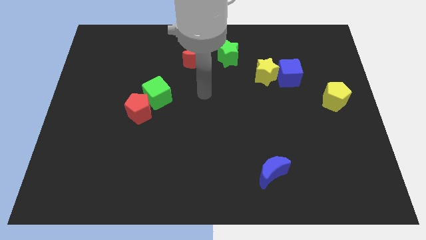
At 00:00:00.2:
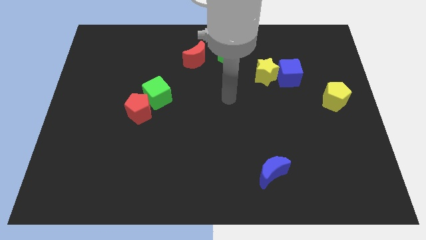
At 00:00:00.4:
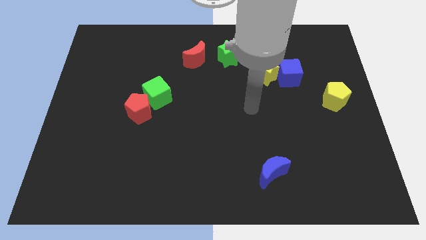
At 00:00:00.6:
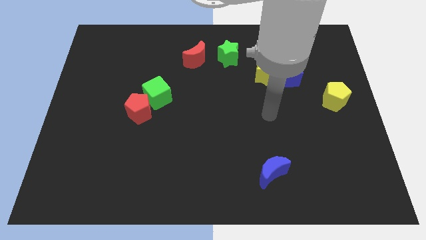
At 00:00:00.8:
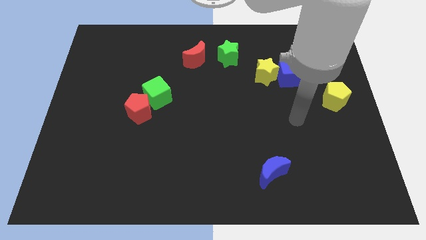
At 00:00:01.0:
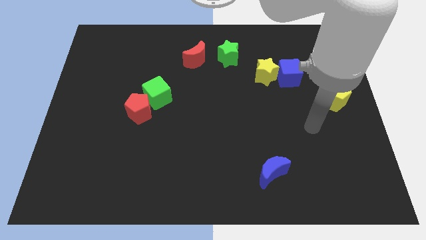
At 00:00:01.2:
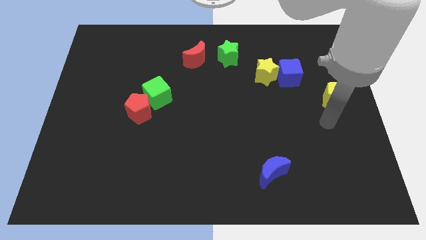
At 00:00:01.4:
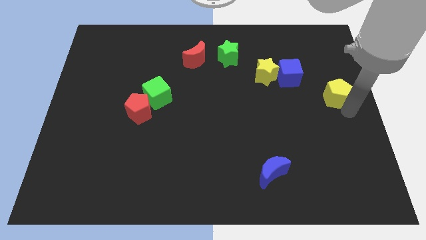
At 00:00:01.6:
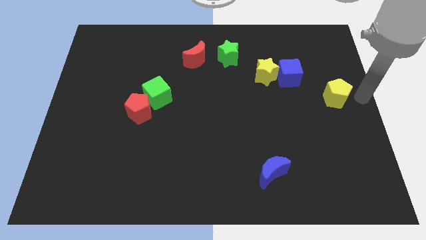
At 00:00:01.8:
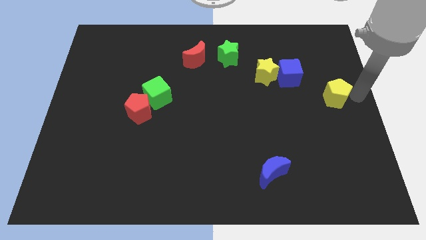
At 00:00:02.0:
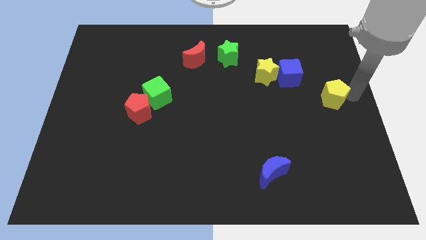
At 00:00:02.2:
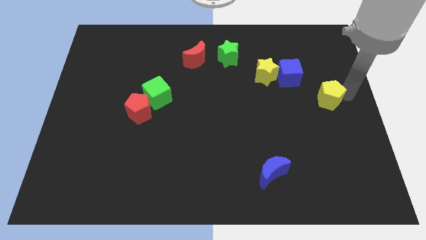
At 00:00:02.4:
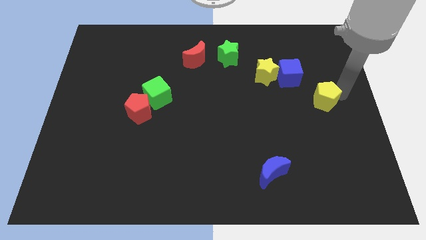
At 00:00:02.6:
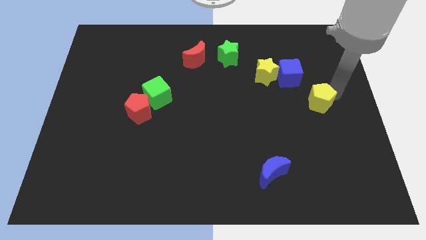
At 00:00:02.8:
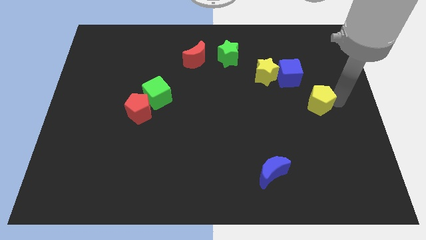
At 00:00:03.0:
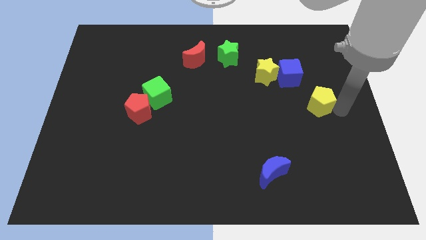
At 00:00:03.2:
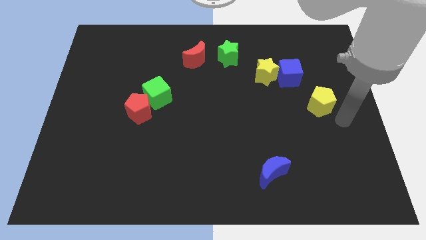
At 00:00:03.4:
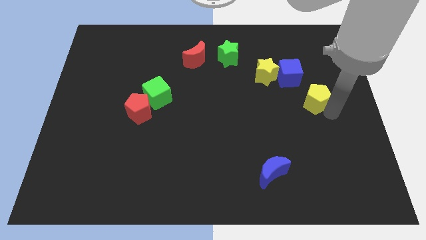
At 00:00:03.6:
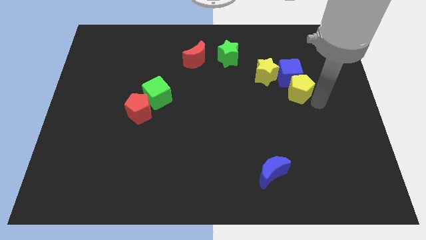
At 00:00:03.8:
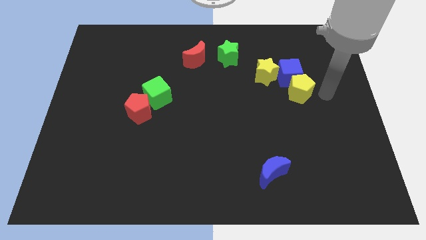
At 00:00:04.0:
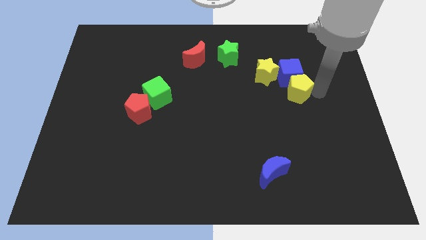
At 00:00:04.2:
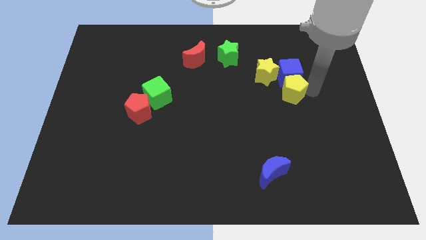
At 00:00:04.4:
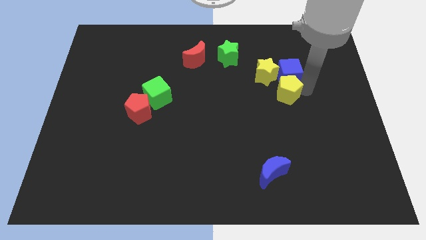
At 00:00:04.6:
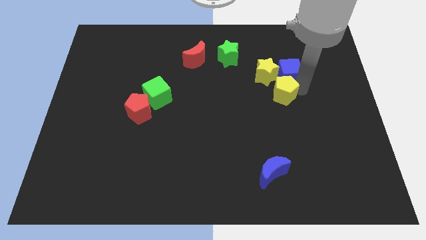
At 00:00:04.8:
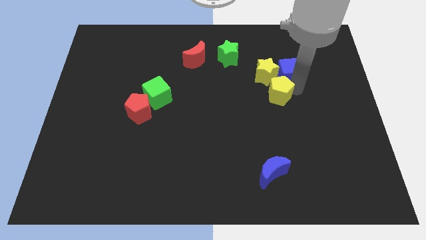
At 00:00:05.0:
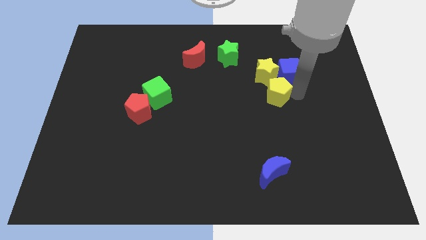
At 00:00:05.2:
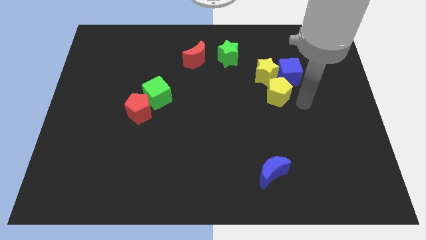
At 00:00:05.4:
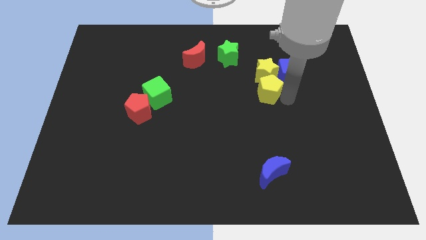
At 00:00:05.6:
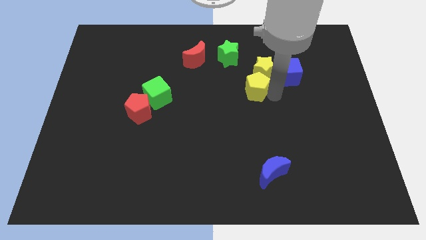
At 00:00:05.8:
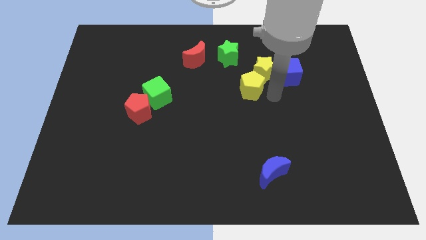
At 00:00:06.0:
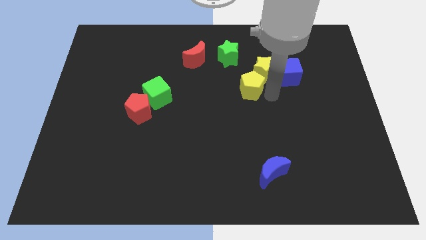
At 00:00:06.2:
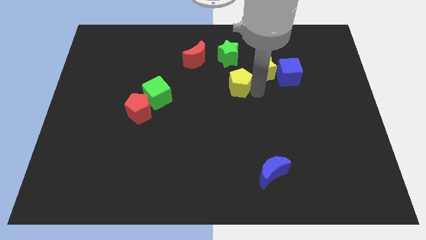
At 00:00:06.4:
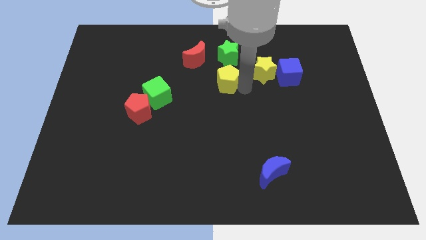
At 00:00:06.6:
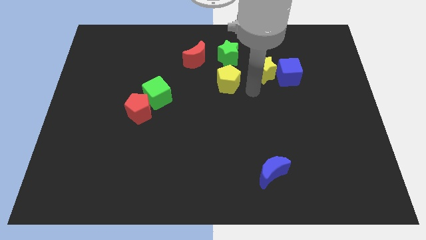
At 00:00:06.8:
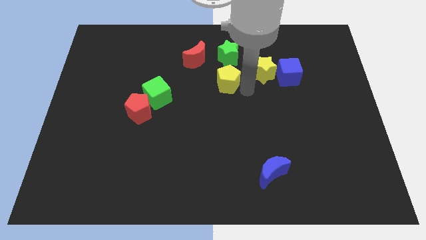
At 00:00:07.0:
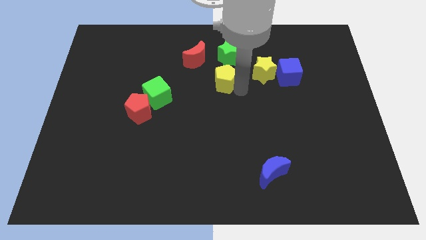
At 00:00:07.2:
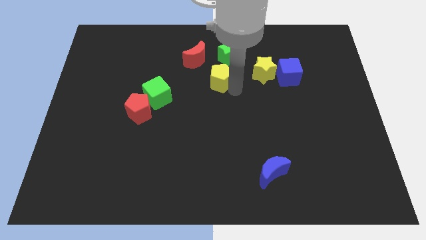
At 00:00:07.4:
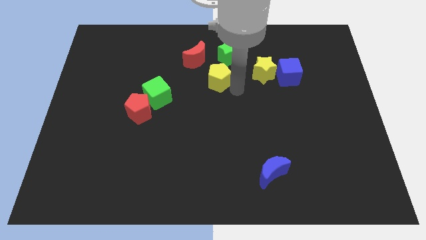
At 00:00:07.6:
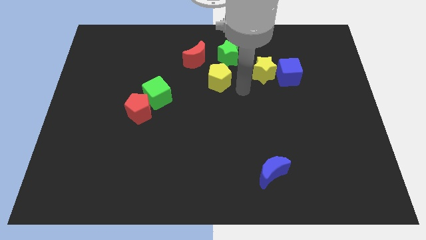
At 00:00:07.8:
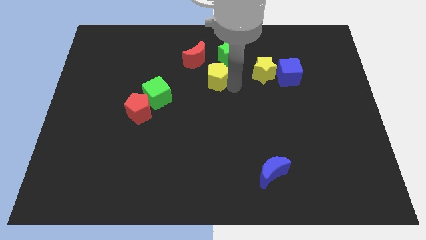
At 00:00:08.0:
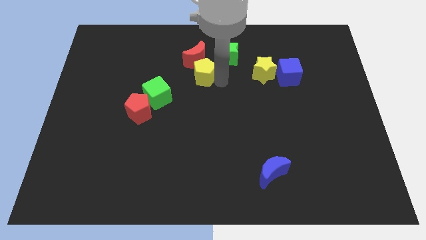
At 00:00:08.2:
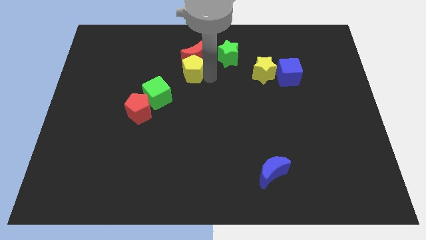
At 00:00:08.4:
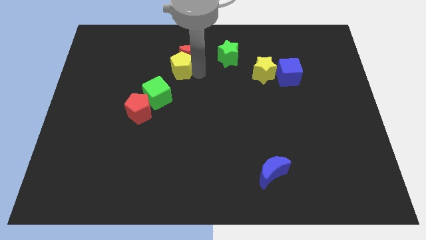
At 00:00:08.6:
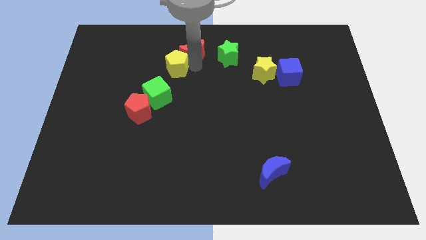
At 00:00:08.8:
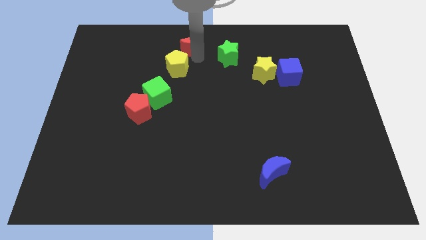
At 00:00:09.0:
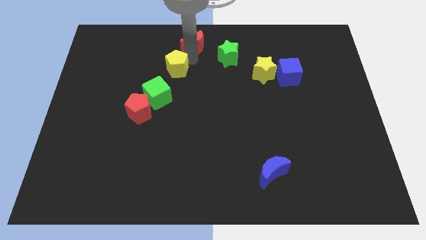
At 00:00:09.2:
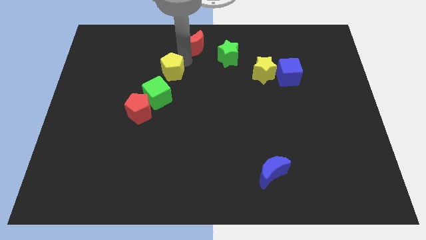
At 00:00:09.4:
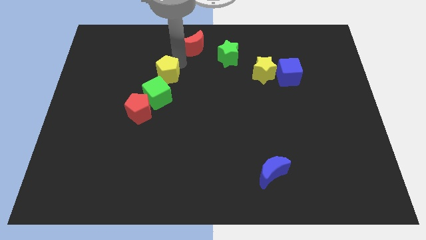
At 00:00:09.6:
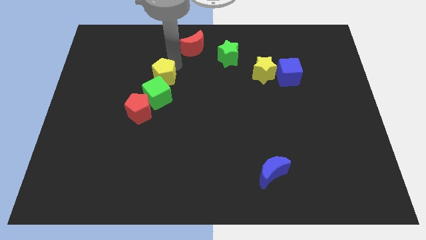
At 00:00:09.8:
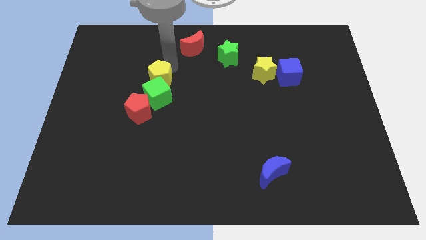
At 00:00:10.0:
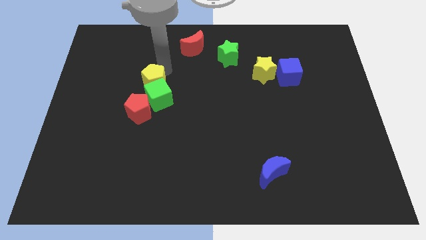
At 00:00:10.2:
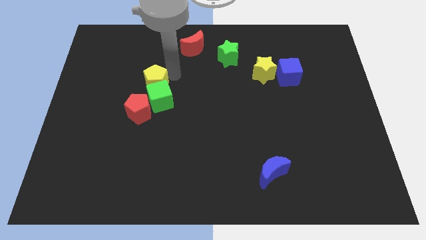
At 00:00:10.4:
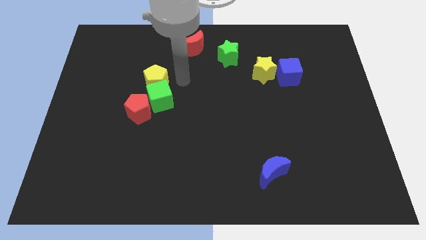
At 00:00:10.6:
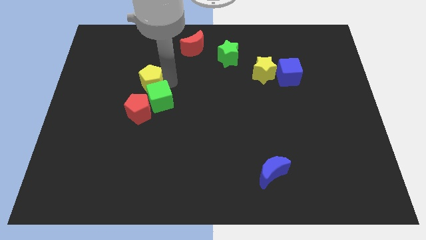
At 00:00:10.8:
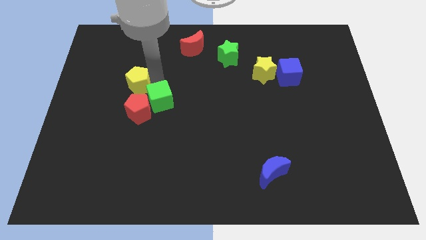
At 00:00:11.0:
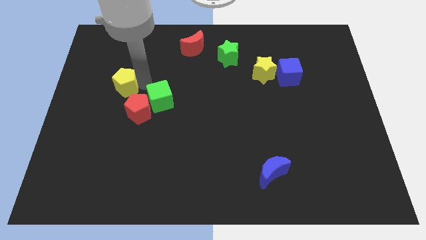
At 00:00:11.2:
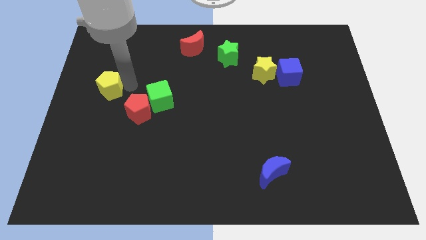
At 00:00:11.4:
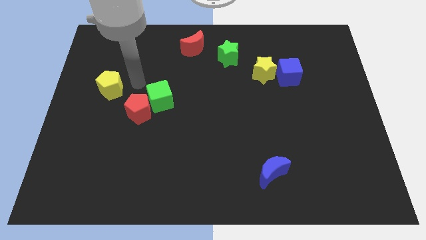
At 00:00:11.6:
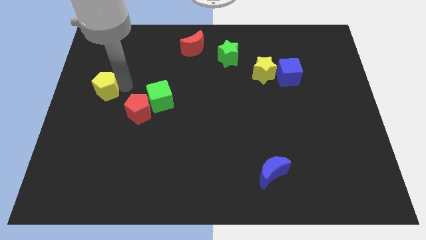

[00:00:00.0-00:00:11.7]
slide the yellow pentagon to the left side of the board
